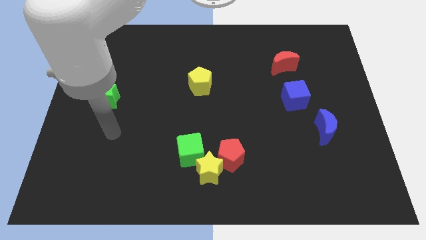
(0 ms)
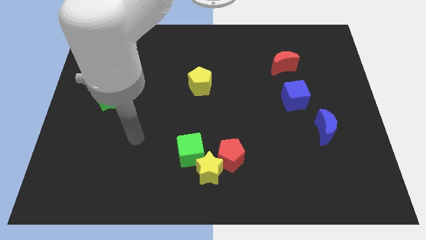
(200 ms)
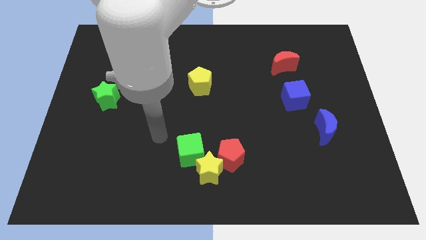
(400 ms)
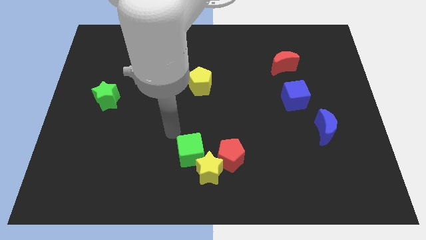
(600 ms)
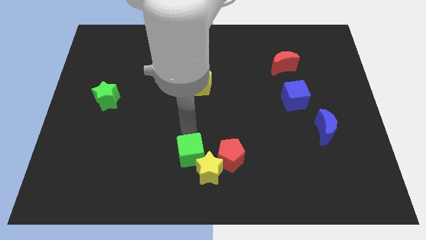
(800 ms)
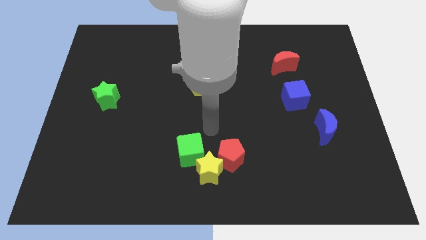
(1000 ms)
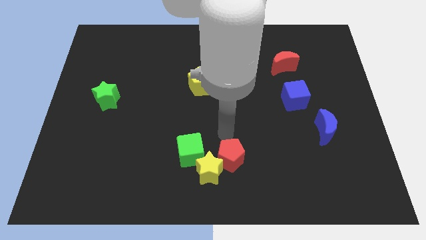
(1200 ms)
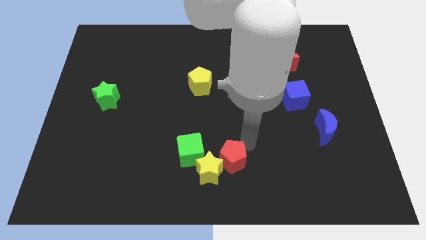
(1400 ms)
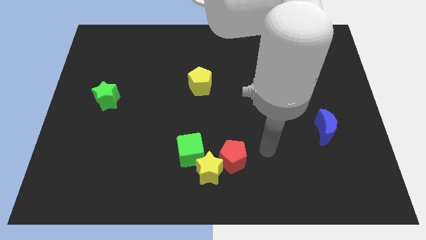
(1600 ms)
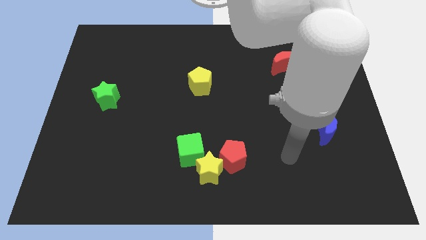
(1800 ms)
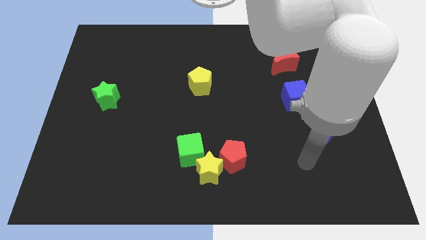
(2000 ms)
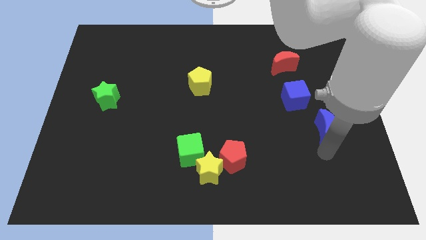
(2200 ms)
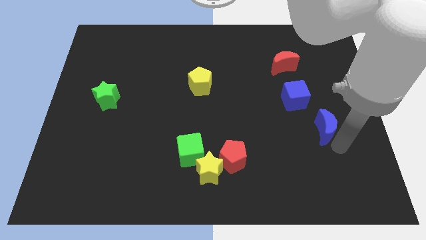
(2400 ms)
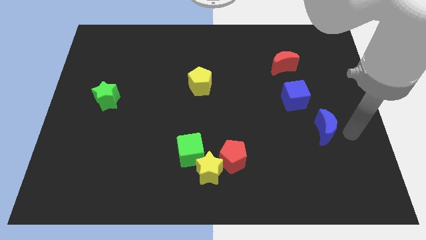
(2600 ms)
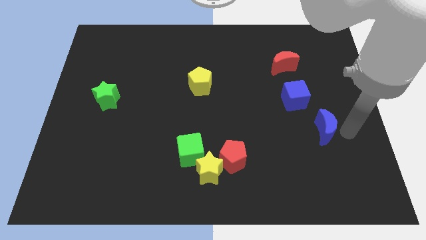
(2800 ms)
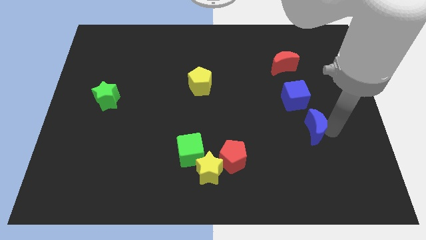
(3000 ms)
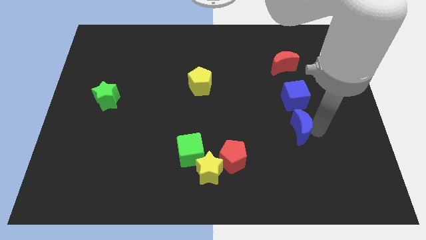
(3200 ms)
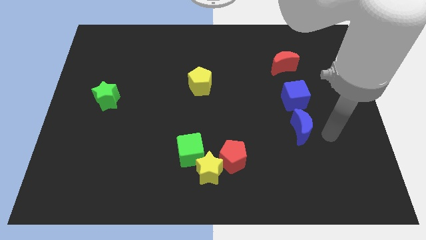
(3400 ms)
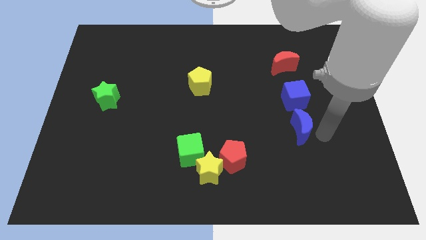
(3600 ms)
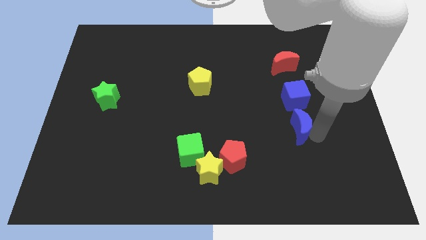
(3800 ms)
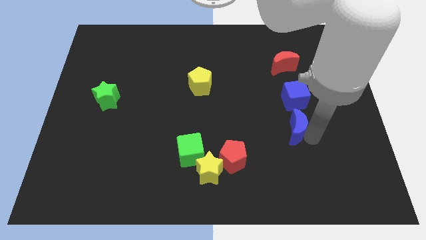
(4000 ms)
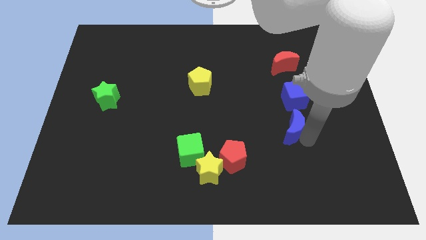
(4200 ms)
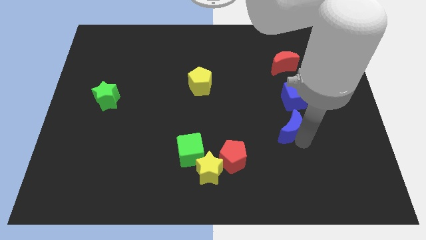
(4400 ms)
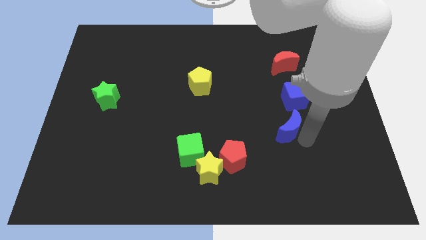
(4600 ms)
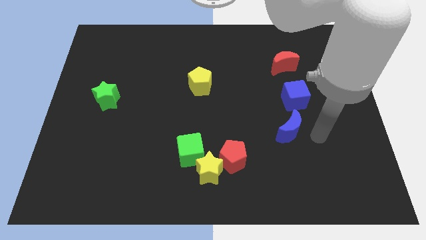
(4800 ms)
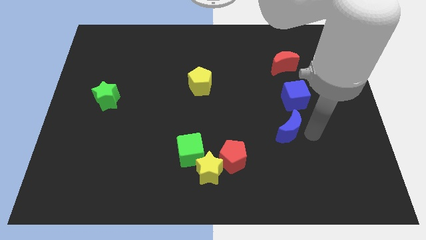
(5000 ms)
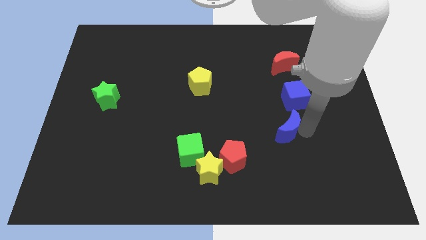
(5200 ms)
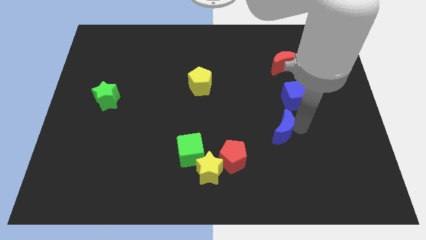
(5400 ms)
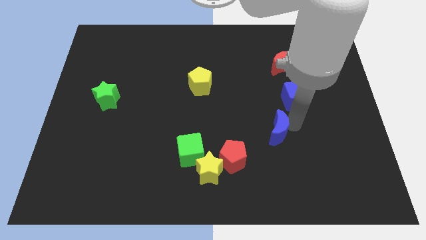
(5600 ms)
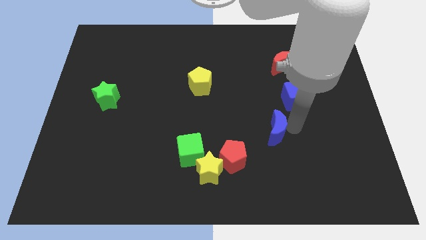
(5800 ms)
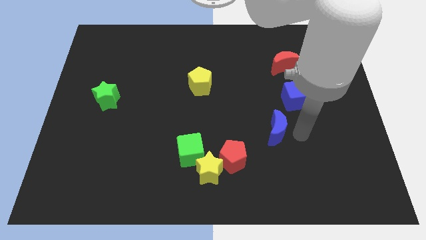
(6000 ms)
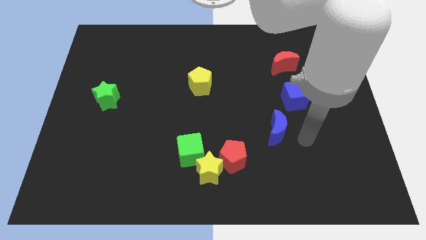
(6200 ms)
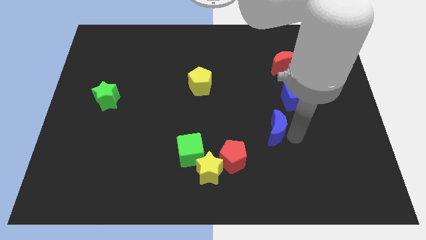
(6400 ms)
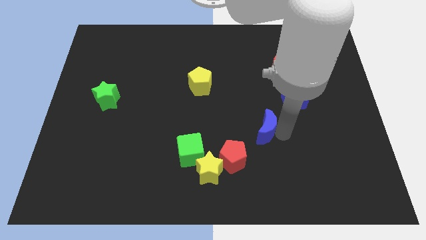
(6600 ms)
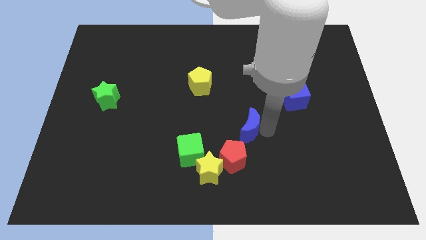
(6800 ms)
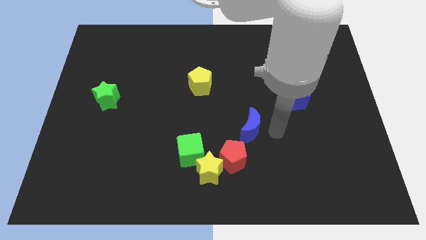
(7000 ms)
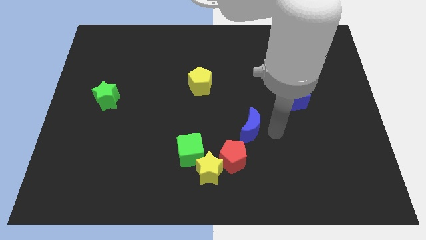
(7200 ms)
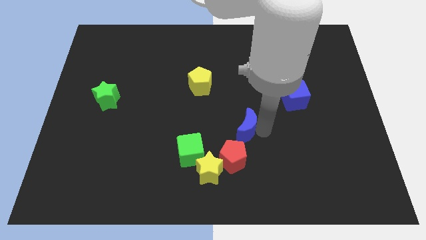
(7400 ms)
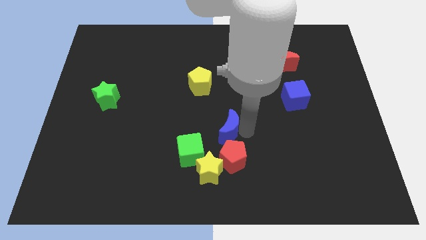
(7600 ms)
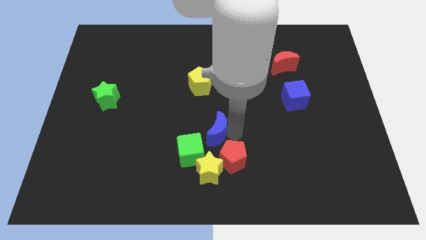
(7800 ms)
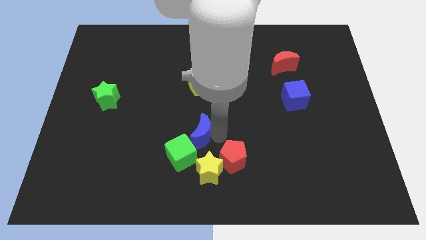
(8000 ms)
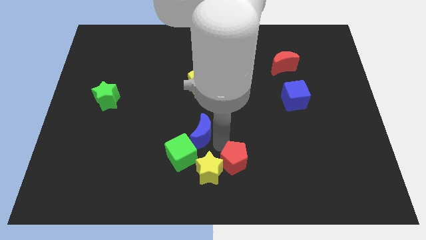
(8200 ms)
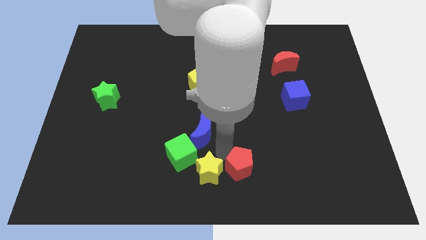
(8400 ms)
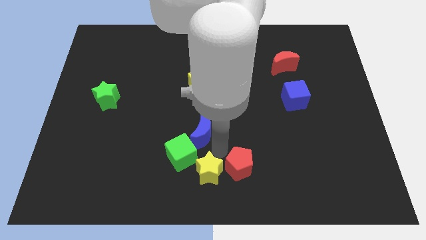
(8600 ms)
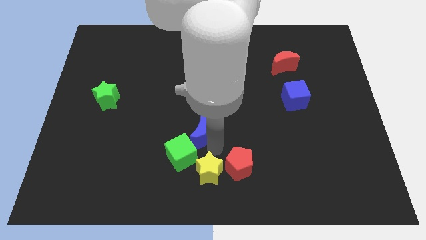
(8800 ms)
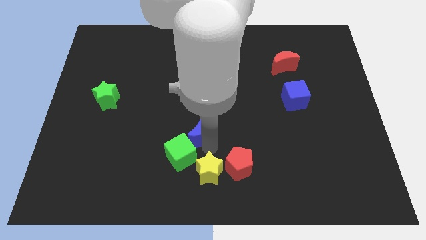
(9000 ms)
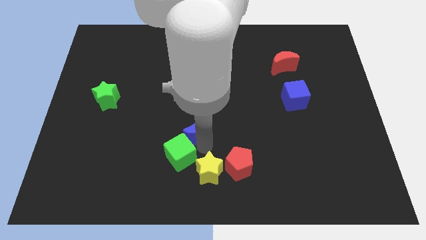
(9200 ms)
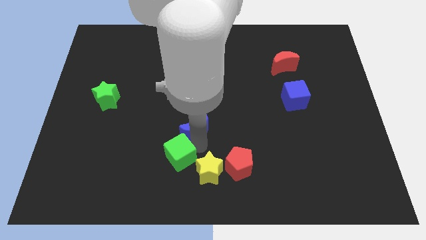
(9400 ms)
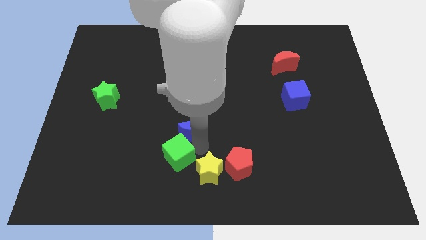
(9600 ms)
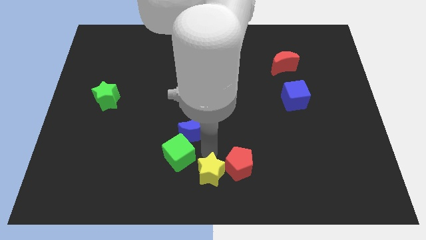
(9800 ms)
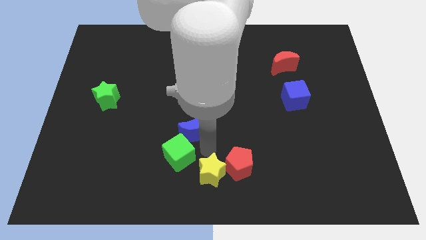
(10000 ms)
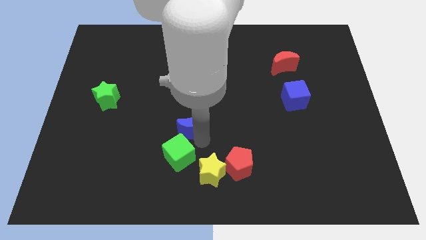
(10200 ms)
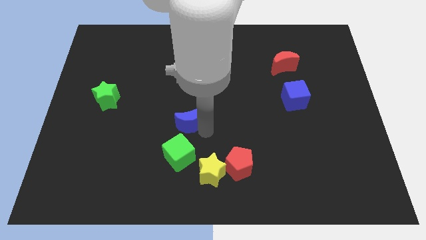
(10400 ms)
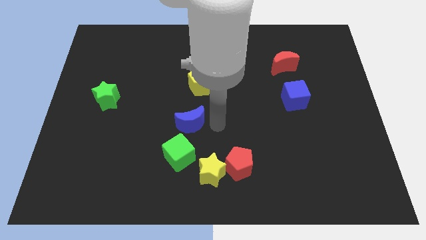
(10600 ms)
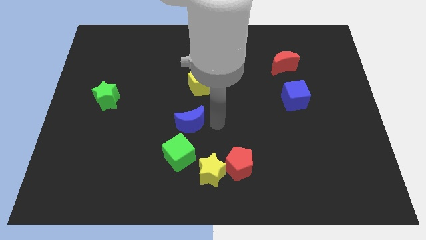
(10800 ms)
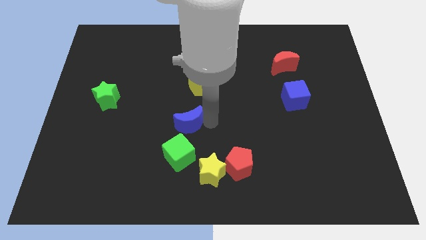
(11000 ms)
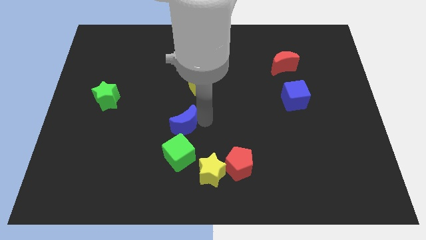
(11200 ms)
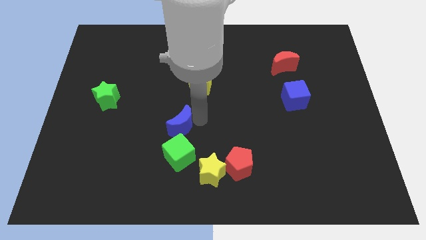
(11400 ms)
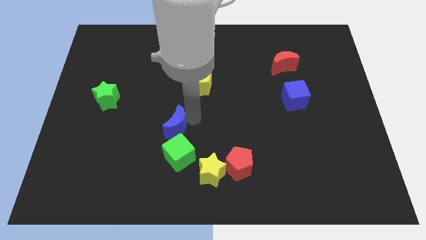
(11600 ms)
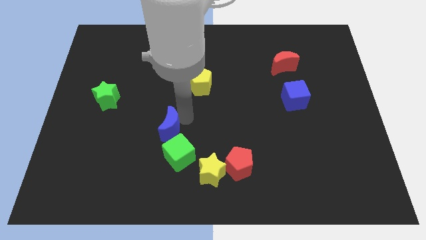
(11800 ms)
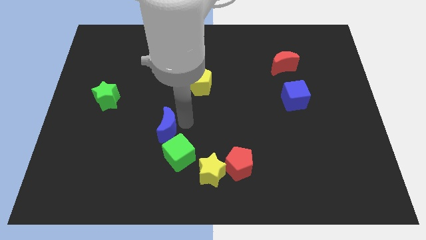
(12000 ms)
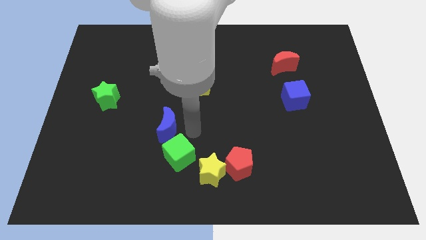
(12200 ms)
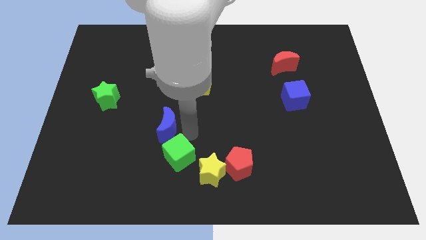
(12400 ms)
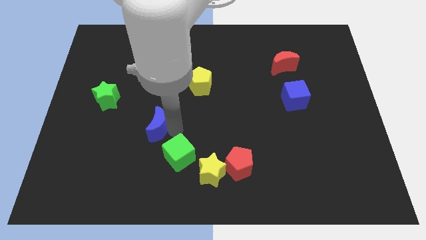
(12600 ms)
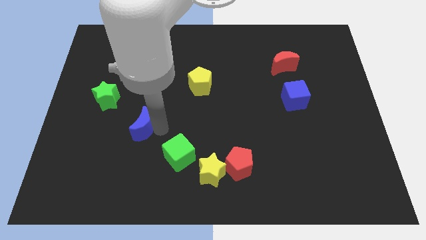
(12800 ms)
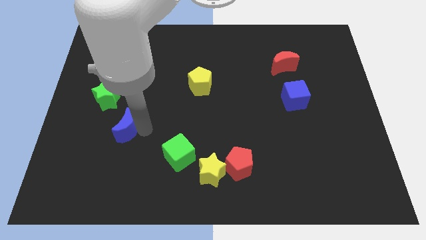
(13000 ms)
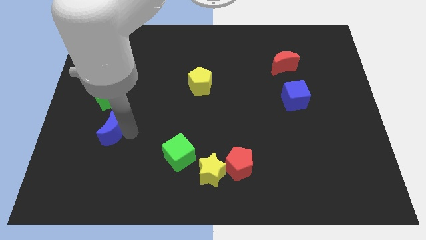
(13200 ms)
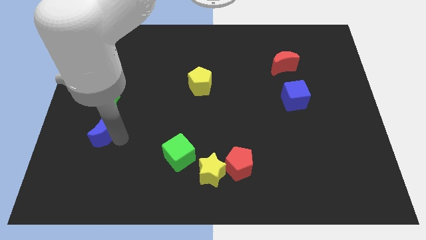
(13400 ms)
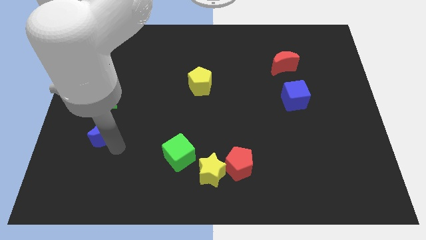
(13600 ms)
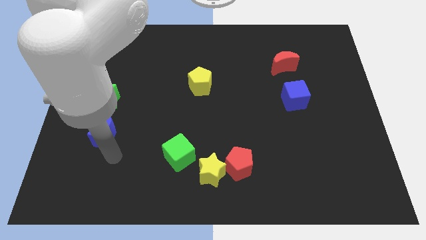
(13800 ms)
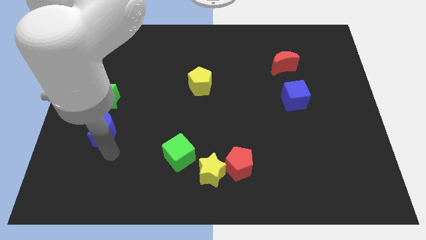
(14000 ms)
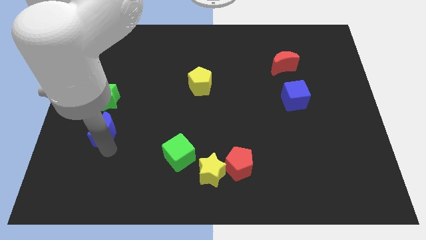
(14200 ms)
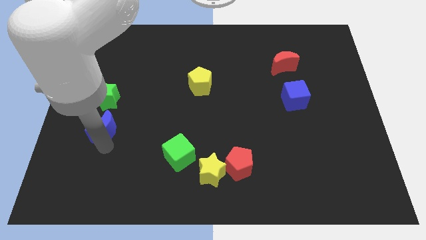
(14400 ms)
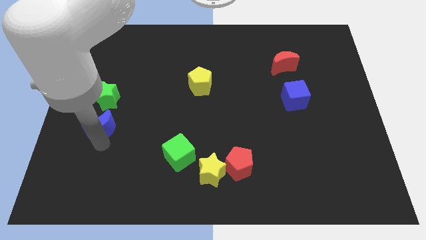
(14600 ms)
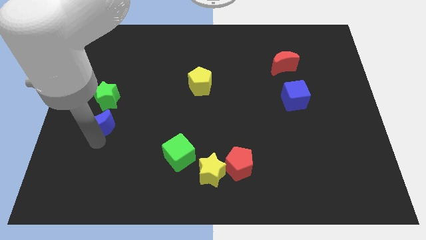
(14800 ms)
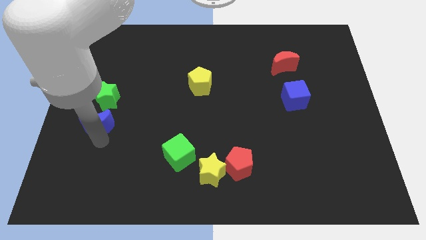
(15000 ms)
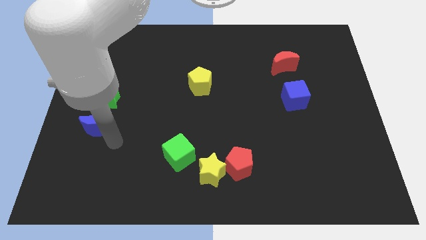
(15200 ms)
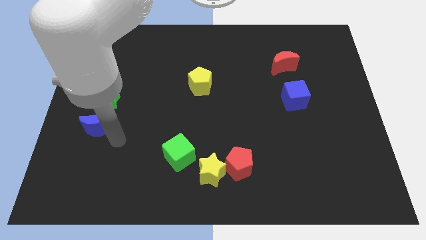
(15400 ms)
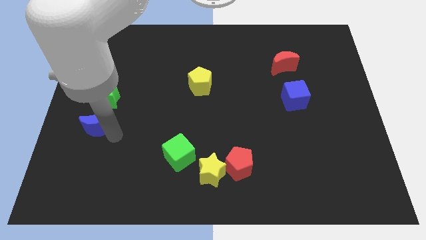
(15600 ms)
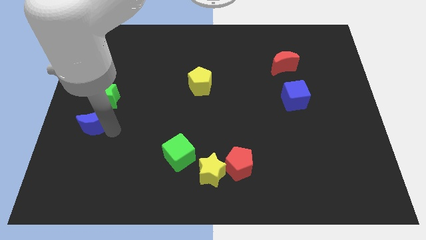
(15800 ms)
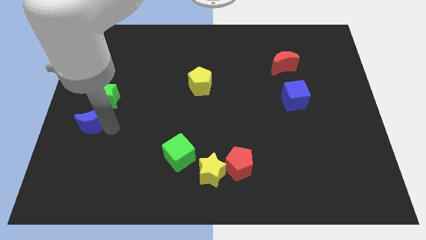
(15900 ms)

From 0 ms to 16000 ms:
slide the blue moon to the left side
